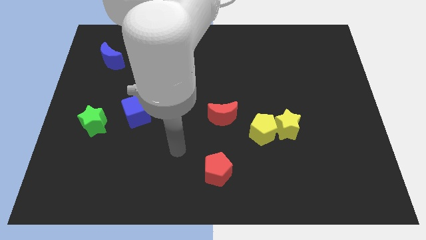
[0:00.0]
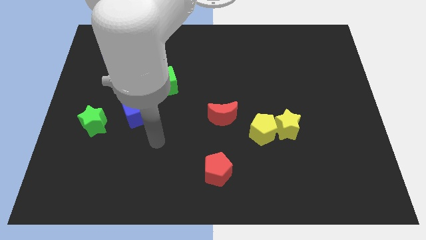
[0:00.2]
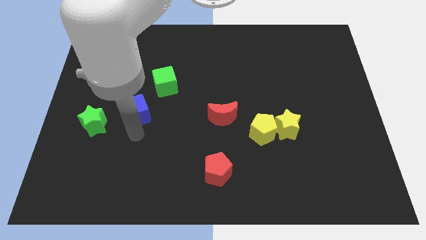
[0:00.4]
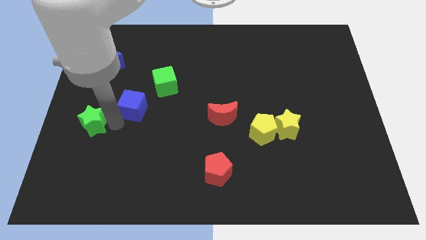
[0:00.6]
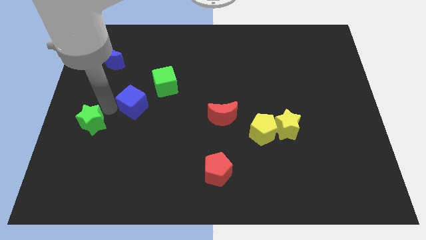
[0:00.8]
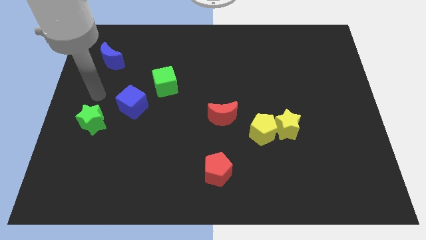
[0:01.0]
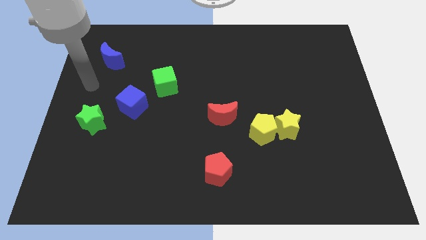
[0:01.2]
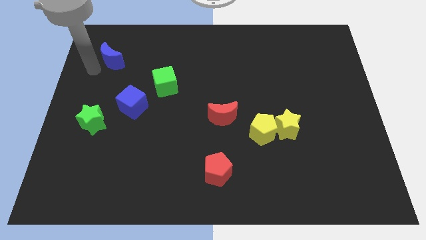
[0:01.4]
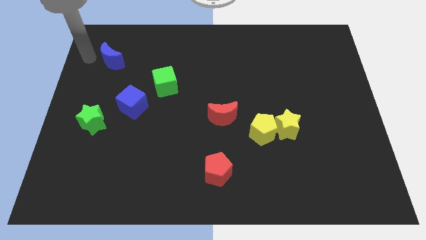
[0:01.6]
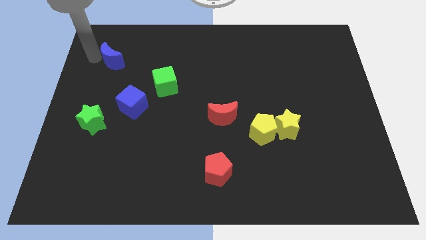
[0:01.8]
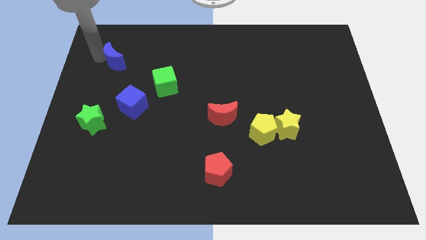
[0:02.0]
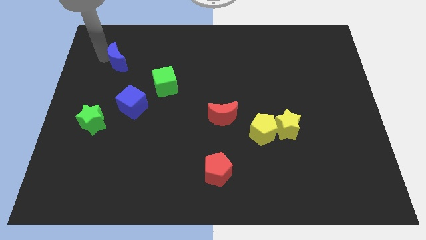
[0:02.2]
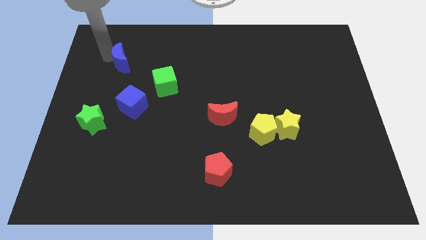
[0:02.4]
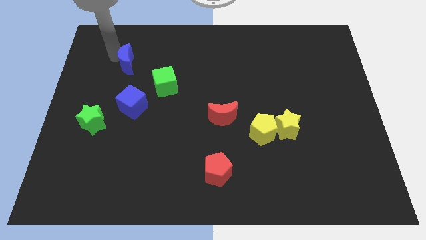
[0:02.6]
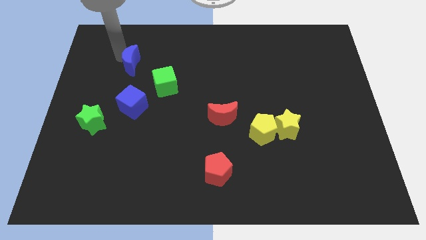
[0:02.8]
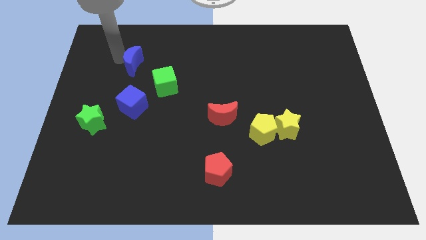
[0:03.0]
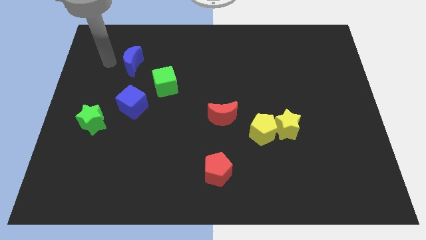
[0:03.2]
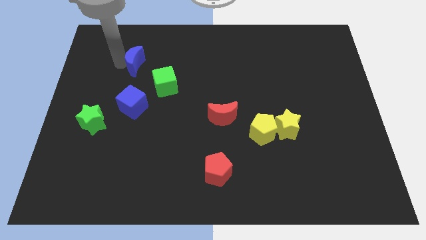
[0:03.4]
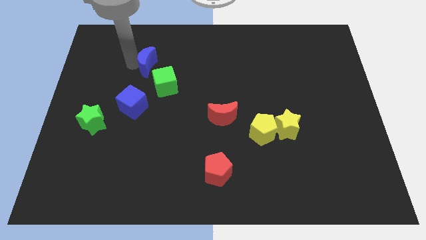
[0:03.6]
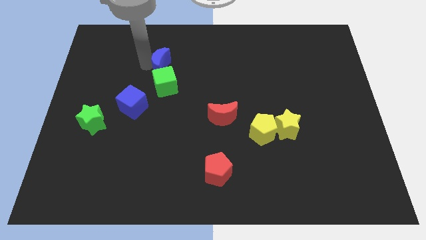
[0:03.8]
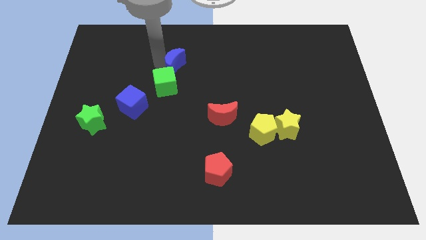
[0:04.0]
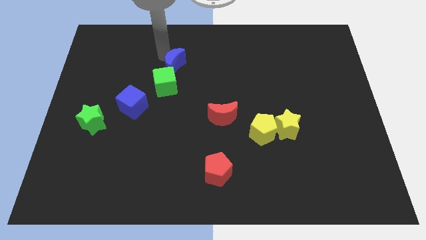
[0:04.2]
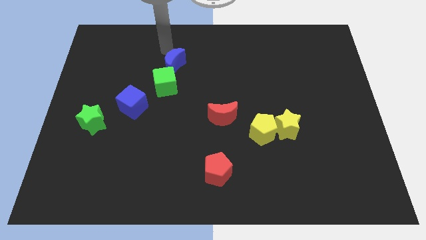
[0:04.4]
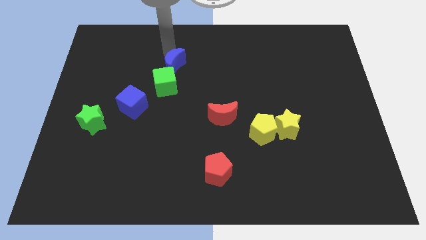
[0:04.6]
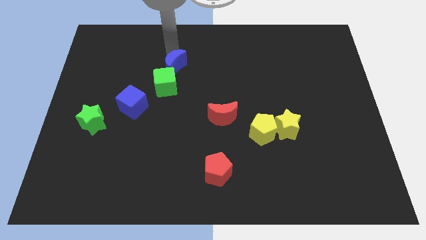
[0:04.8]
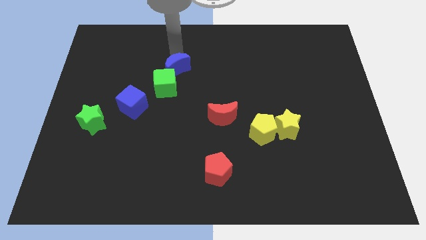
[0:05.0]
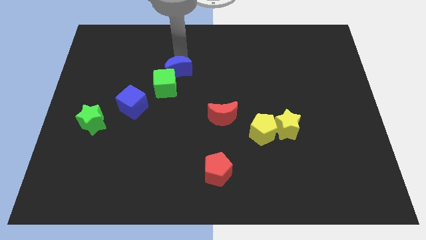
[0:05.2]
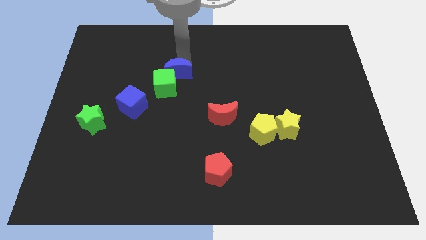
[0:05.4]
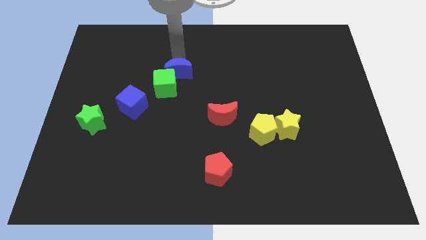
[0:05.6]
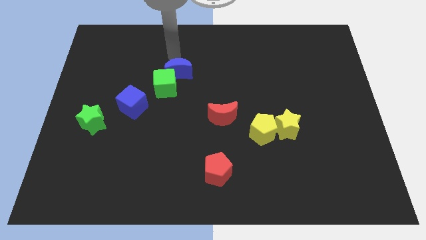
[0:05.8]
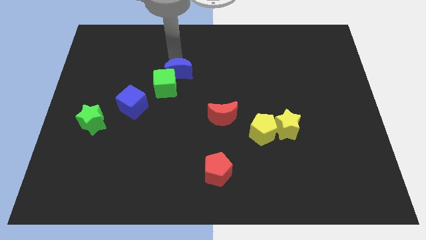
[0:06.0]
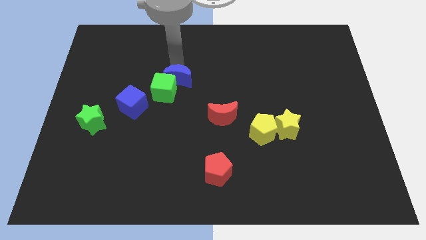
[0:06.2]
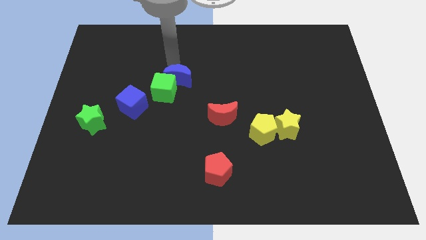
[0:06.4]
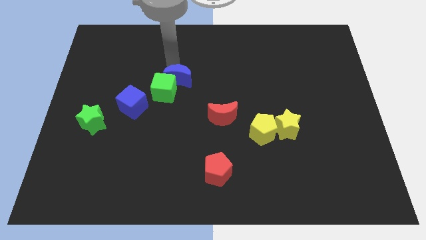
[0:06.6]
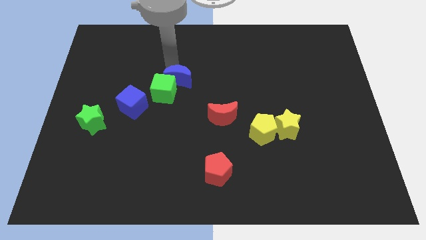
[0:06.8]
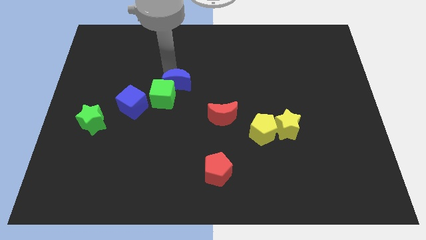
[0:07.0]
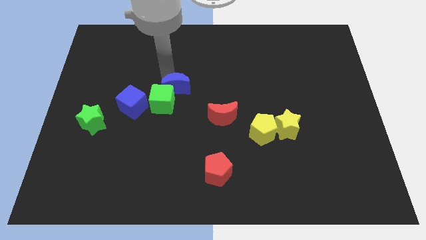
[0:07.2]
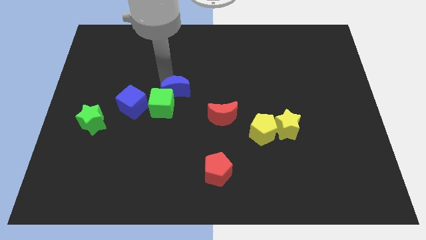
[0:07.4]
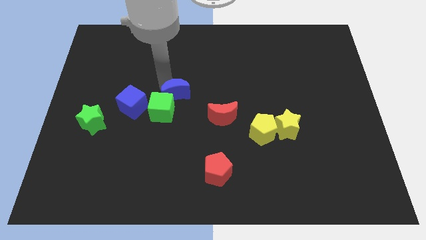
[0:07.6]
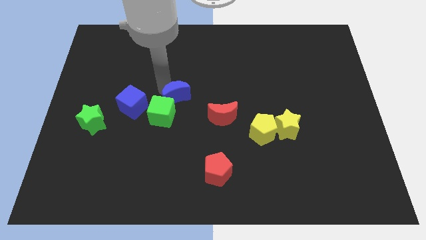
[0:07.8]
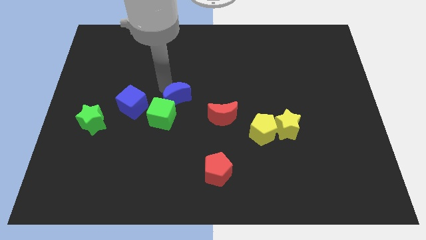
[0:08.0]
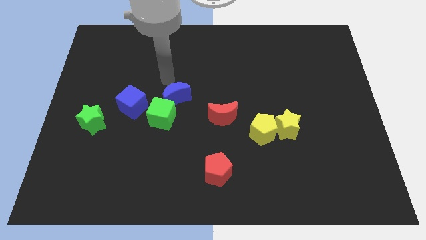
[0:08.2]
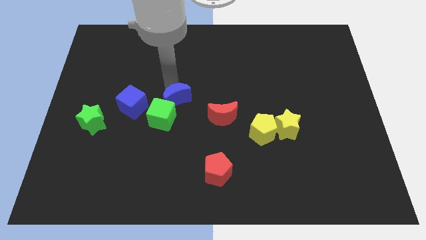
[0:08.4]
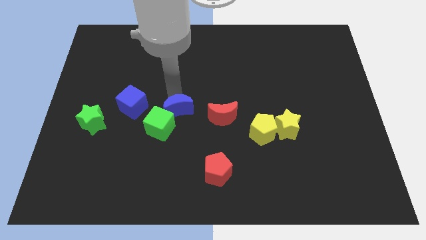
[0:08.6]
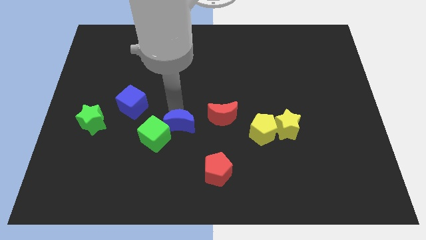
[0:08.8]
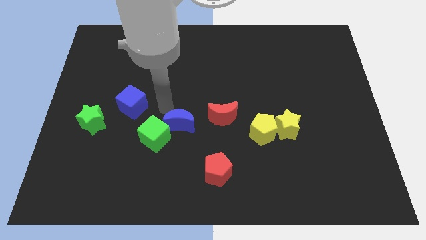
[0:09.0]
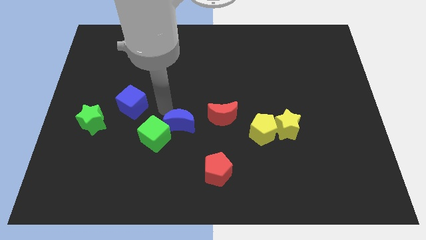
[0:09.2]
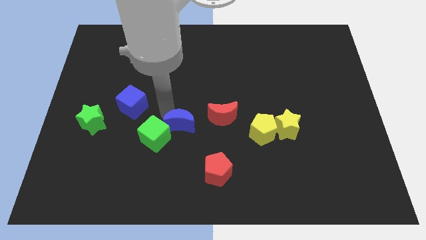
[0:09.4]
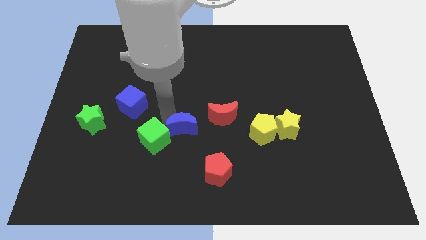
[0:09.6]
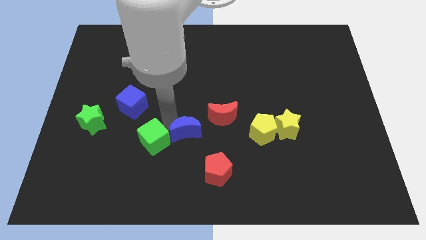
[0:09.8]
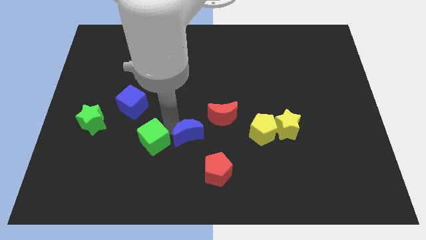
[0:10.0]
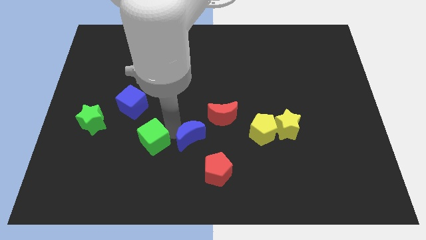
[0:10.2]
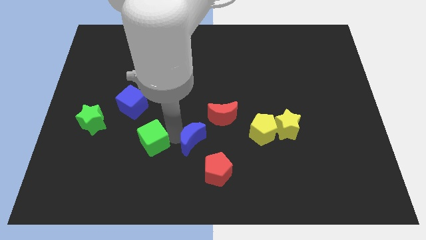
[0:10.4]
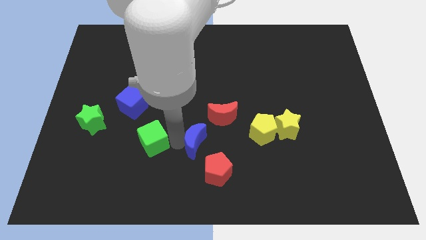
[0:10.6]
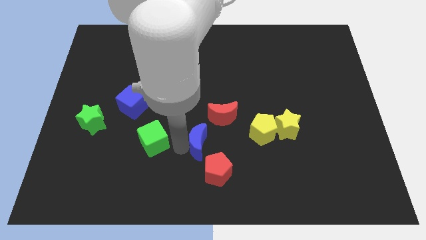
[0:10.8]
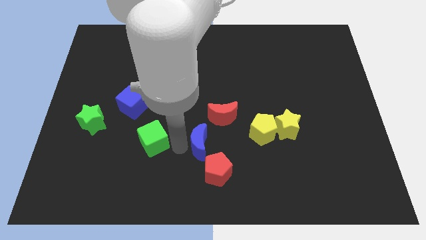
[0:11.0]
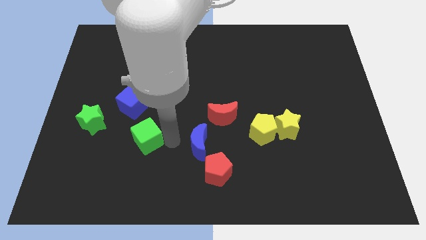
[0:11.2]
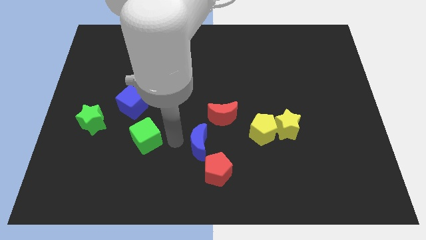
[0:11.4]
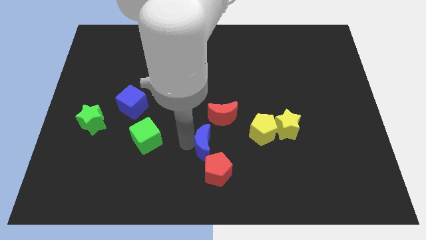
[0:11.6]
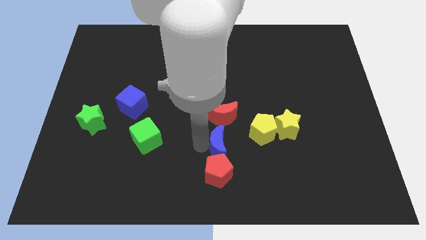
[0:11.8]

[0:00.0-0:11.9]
put the blue moon to the bottom left of the yellow pentagon

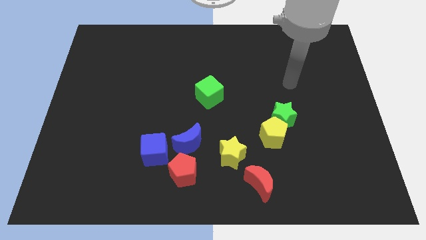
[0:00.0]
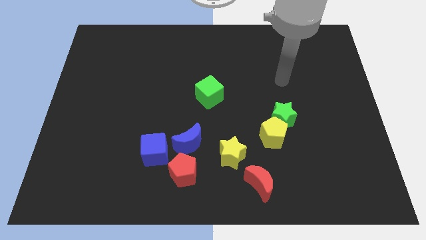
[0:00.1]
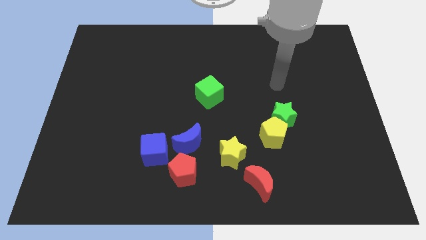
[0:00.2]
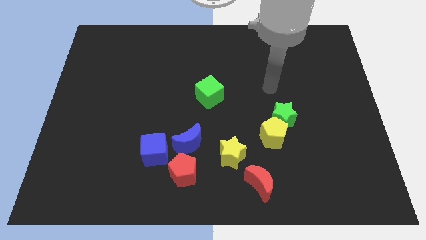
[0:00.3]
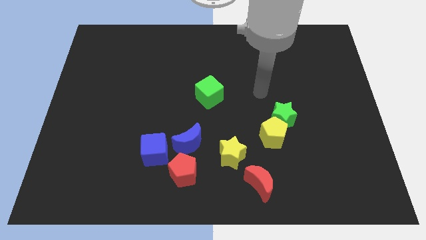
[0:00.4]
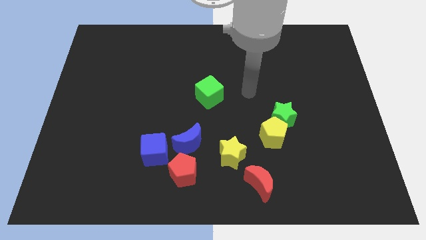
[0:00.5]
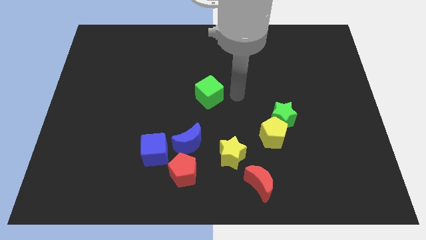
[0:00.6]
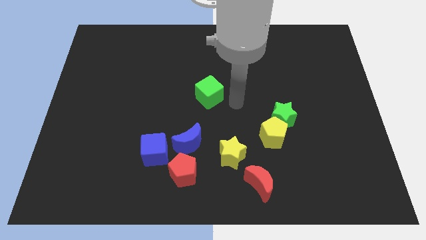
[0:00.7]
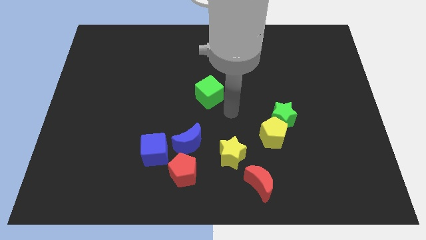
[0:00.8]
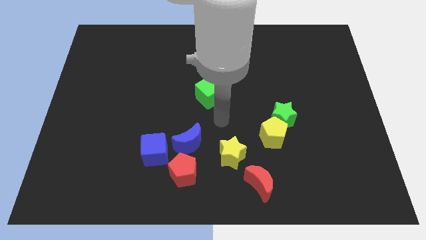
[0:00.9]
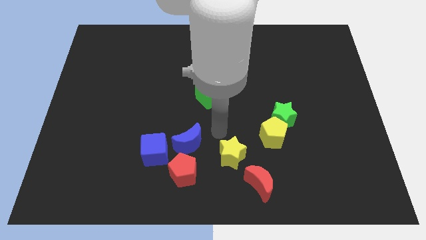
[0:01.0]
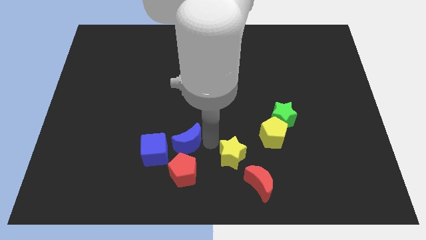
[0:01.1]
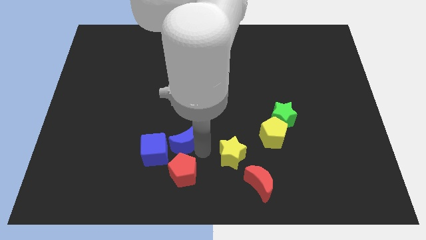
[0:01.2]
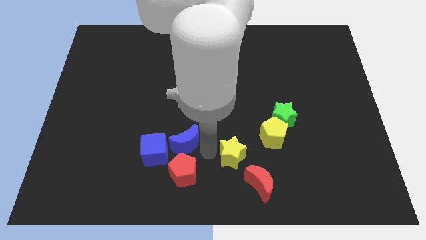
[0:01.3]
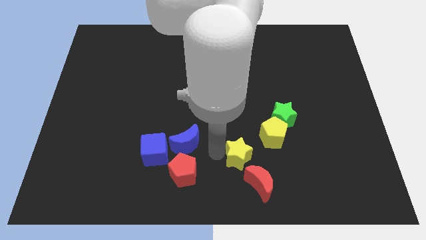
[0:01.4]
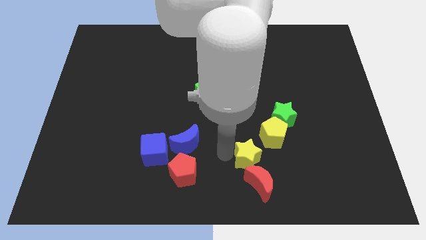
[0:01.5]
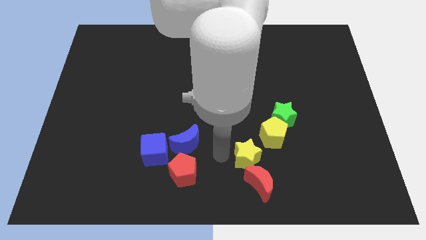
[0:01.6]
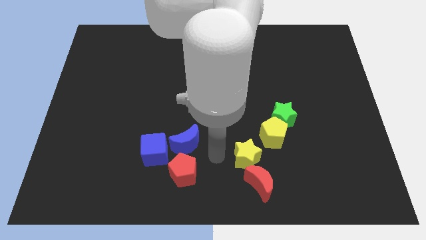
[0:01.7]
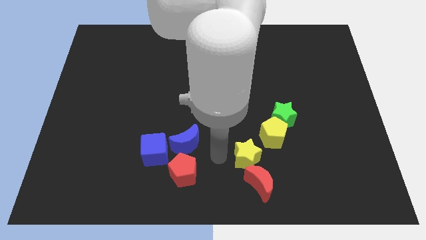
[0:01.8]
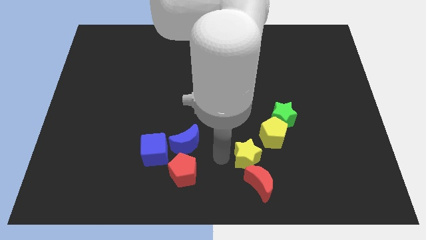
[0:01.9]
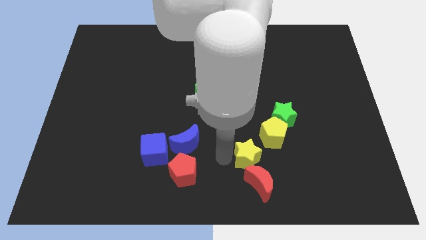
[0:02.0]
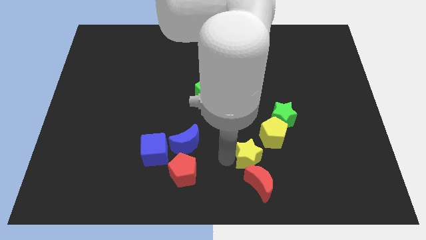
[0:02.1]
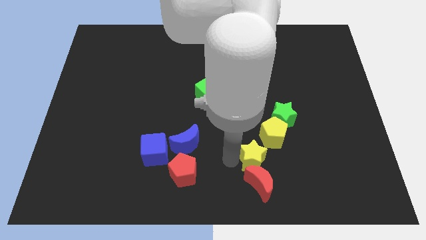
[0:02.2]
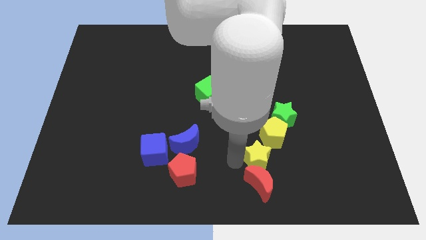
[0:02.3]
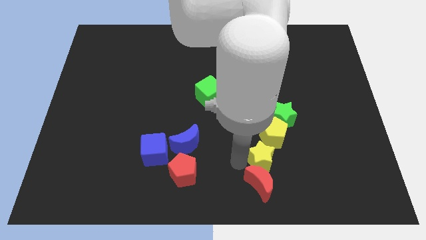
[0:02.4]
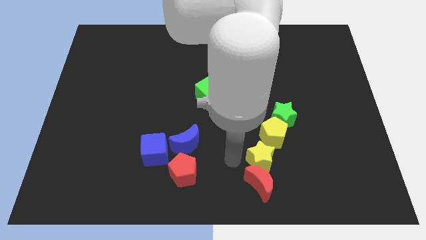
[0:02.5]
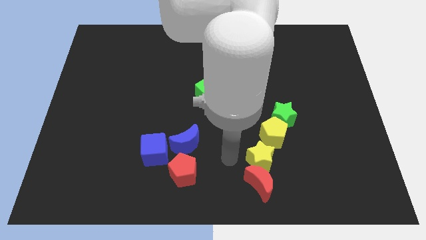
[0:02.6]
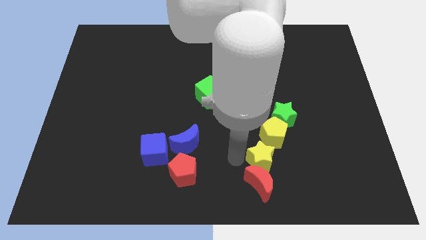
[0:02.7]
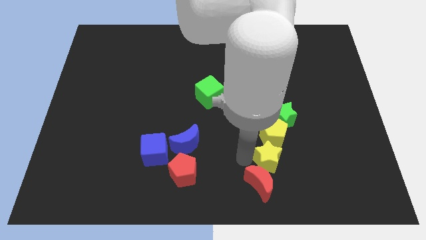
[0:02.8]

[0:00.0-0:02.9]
put the yellow star to the bottom side of the green star
